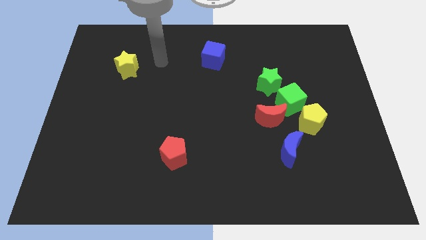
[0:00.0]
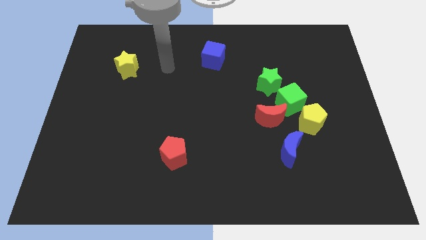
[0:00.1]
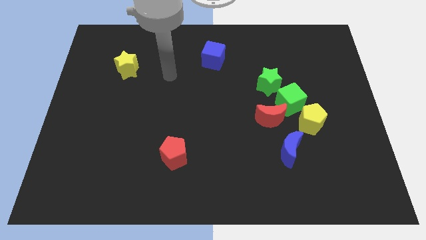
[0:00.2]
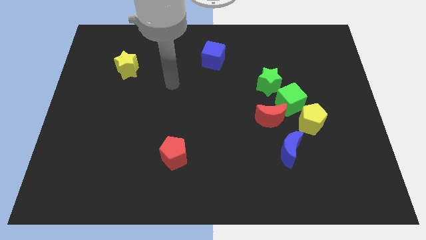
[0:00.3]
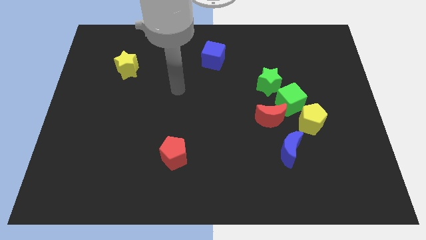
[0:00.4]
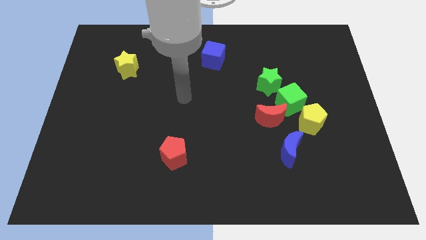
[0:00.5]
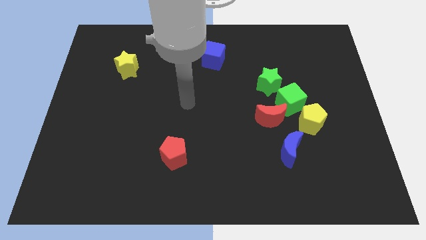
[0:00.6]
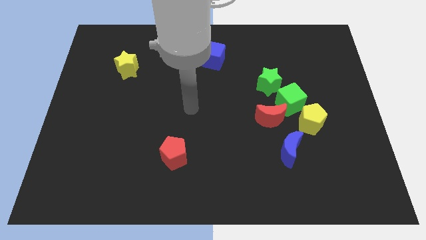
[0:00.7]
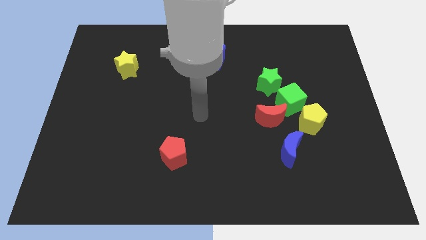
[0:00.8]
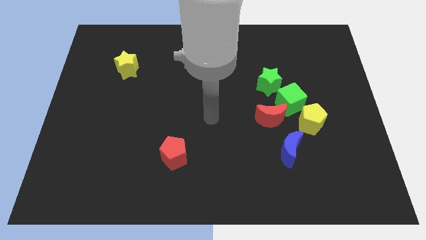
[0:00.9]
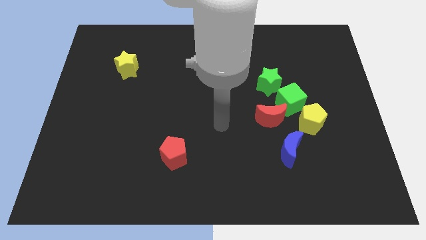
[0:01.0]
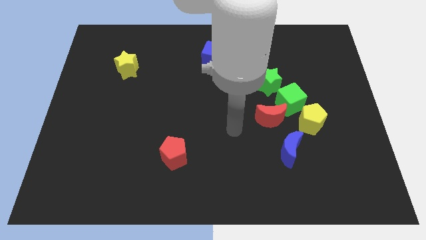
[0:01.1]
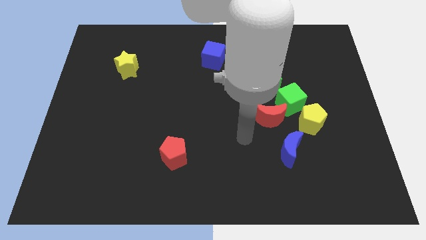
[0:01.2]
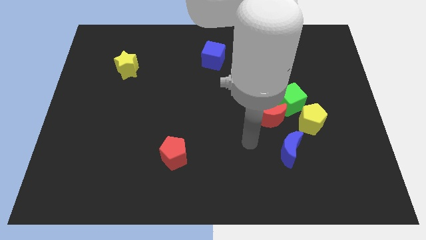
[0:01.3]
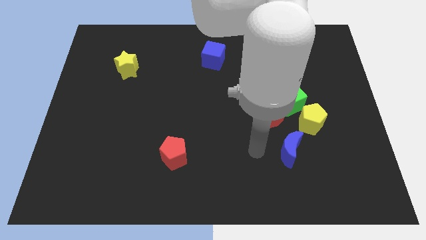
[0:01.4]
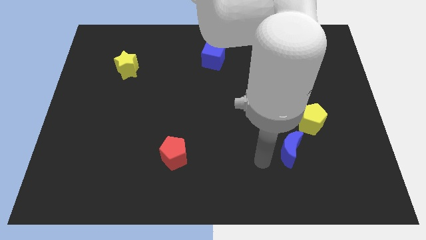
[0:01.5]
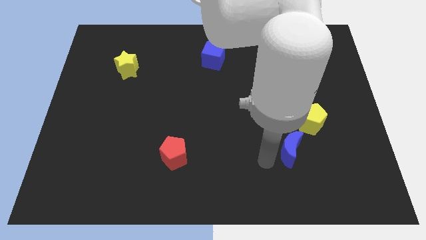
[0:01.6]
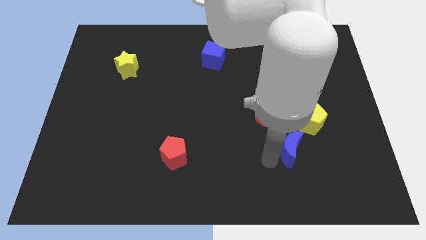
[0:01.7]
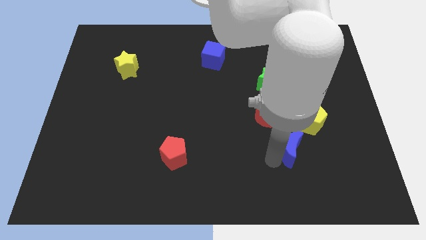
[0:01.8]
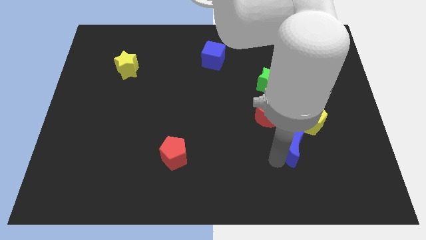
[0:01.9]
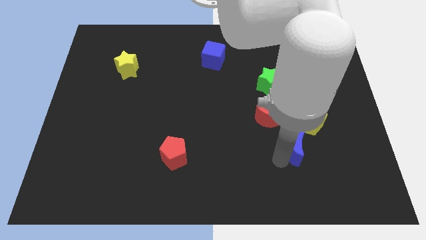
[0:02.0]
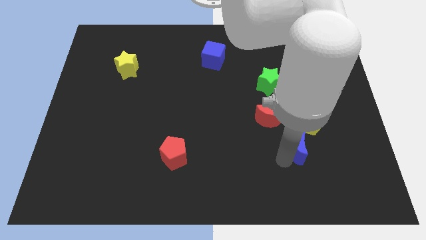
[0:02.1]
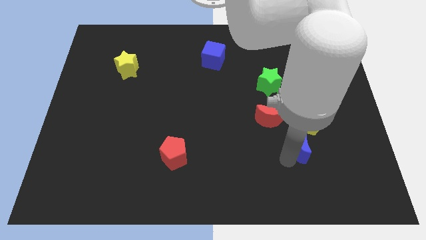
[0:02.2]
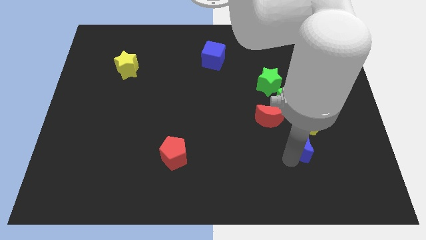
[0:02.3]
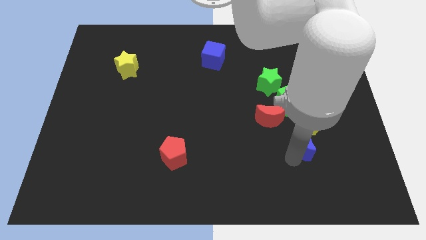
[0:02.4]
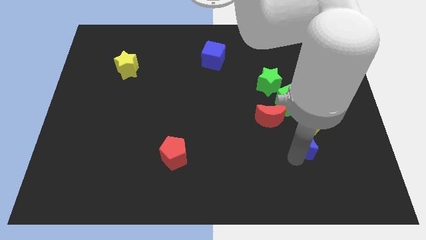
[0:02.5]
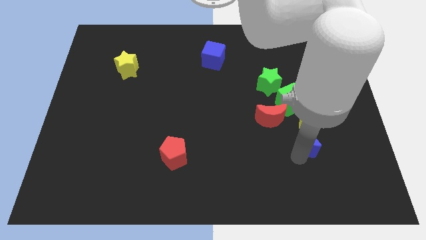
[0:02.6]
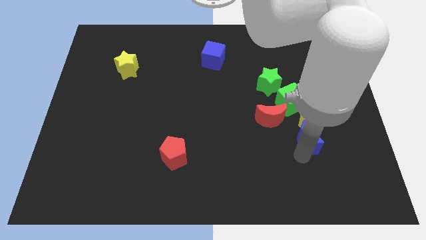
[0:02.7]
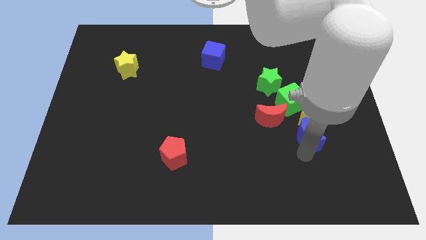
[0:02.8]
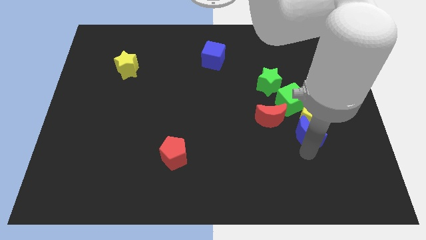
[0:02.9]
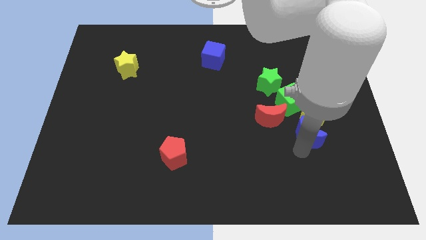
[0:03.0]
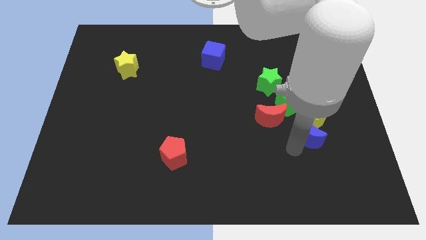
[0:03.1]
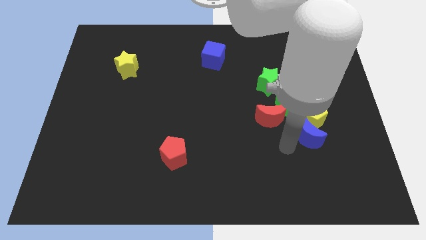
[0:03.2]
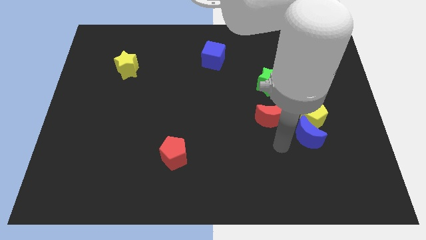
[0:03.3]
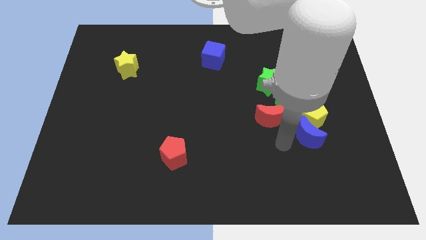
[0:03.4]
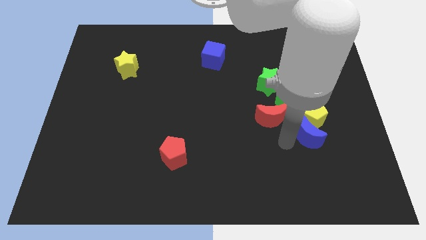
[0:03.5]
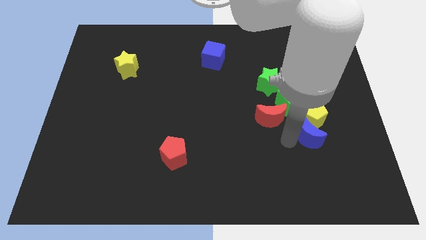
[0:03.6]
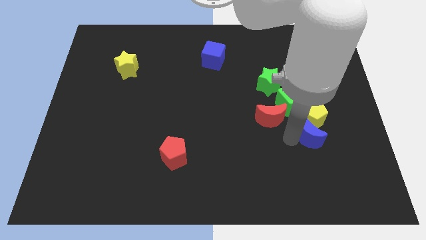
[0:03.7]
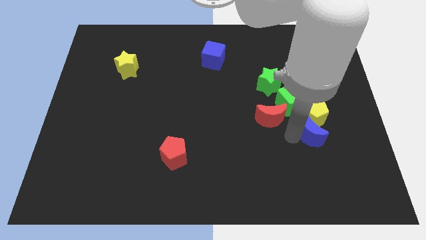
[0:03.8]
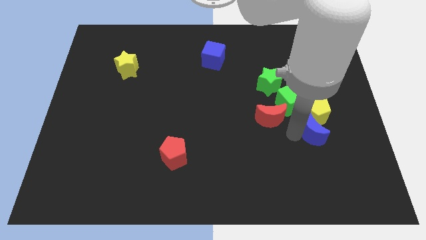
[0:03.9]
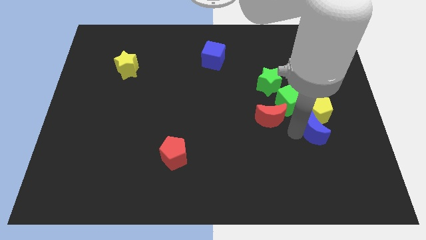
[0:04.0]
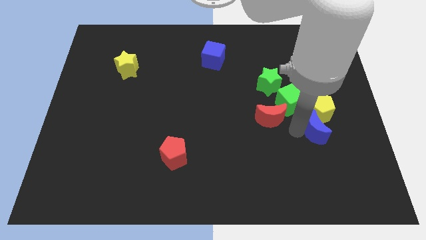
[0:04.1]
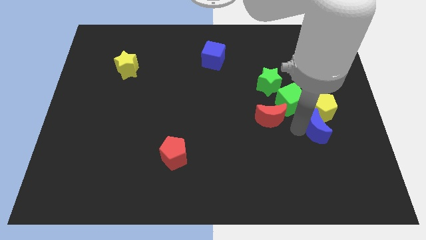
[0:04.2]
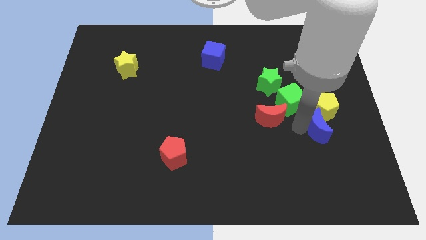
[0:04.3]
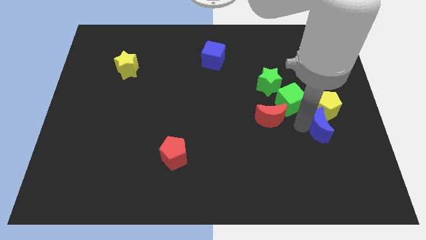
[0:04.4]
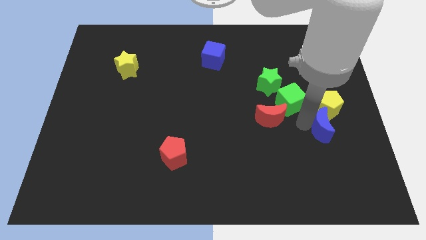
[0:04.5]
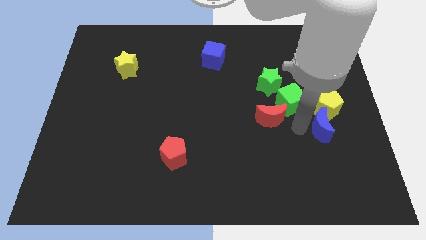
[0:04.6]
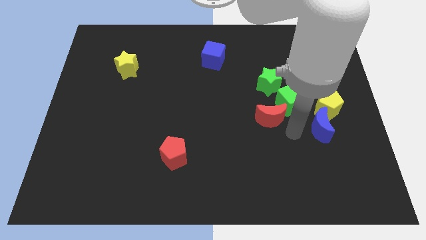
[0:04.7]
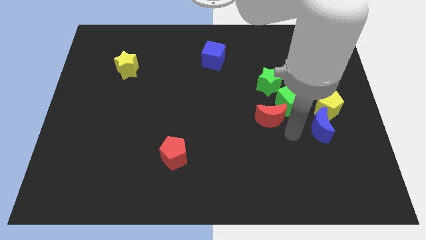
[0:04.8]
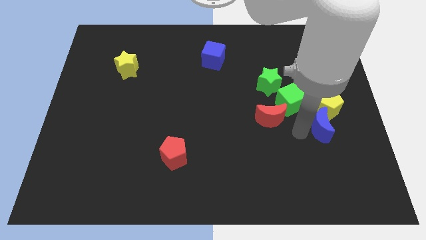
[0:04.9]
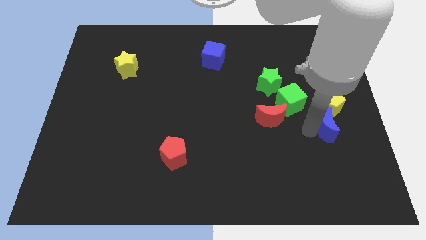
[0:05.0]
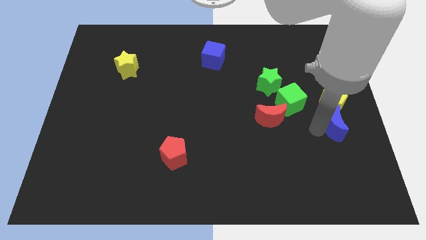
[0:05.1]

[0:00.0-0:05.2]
slide the blue moon to the right side
